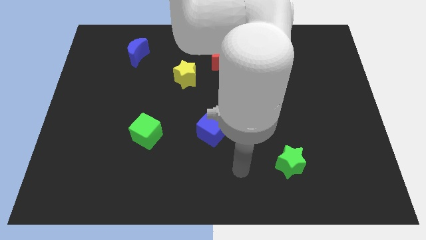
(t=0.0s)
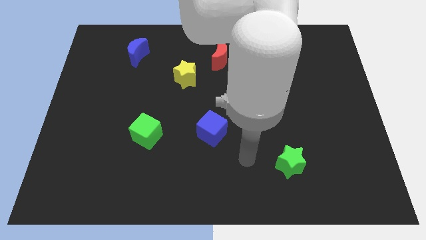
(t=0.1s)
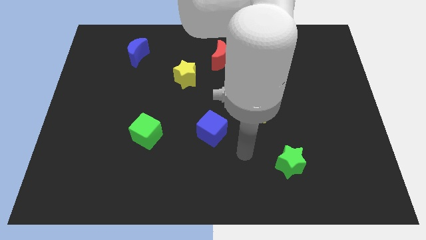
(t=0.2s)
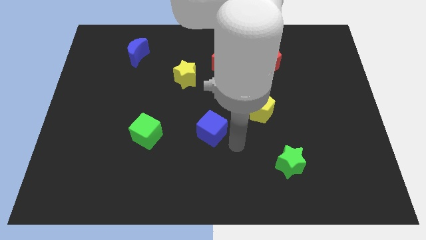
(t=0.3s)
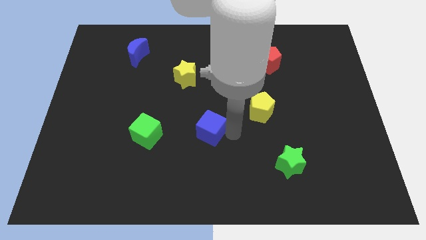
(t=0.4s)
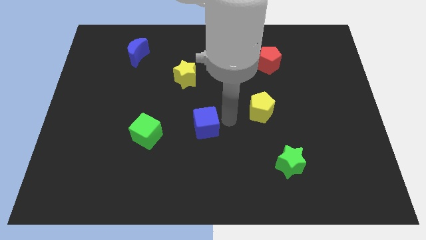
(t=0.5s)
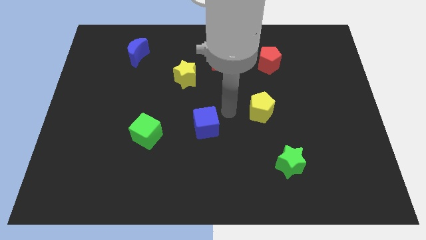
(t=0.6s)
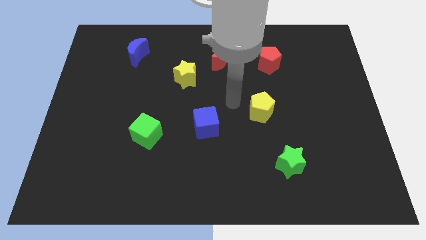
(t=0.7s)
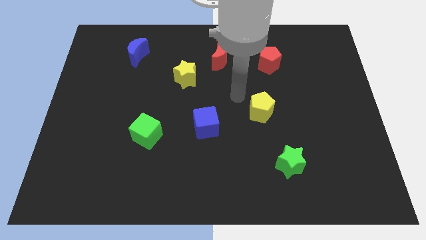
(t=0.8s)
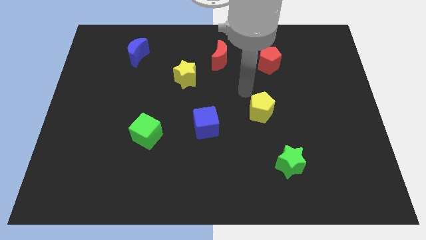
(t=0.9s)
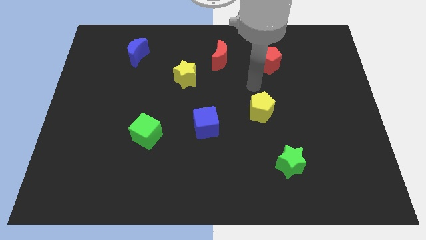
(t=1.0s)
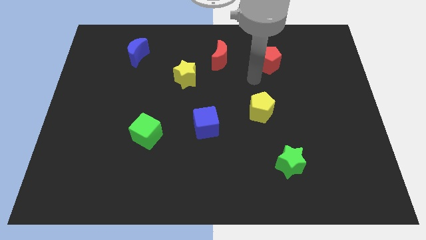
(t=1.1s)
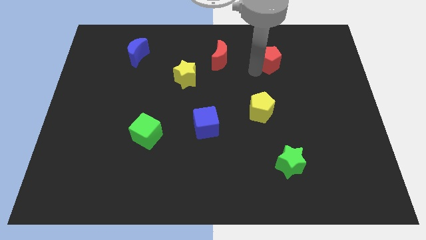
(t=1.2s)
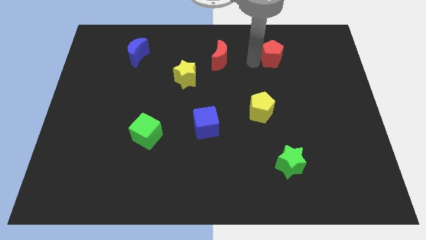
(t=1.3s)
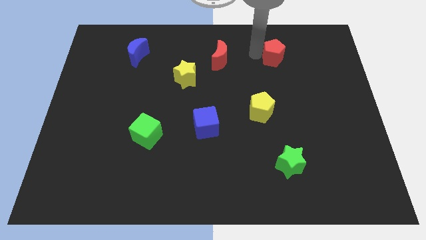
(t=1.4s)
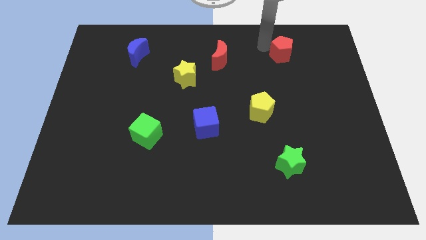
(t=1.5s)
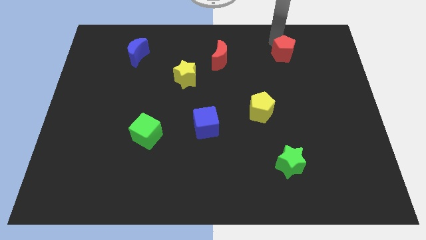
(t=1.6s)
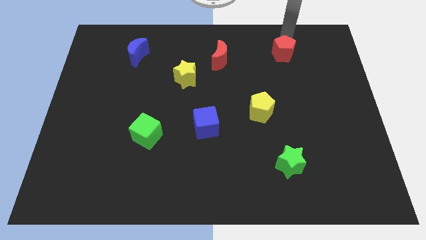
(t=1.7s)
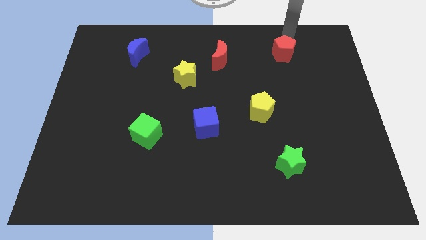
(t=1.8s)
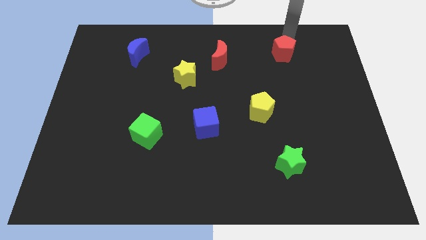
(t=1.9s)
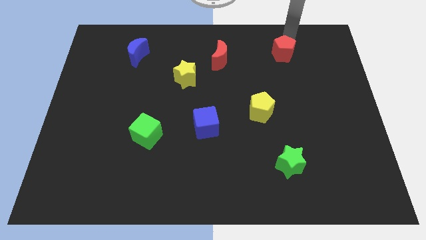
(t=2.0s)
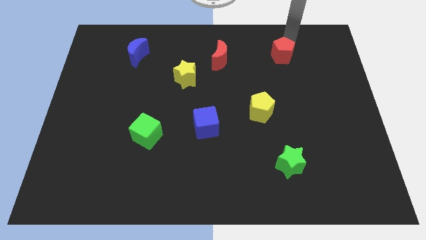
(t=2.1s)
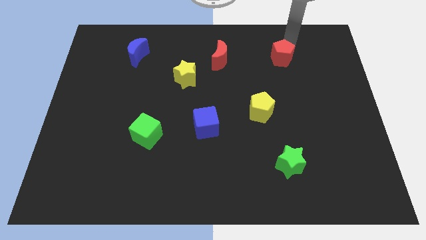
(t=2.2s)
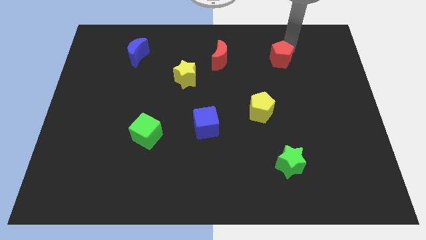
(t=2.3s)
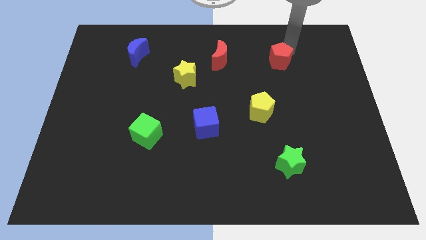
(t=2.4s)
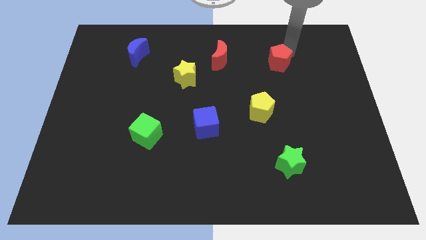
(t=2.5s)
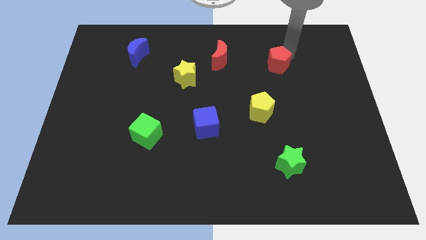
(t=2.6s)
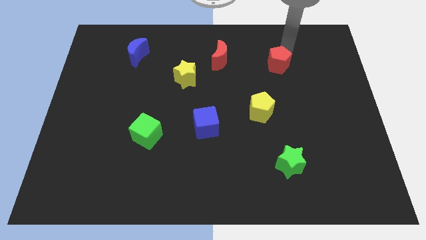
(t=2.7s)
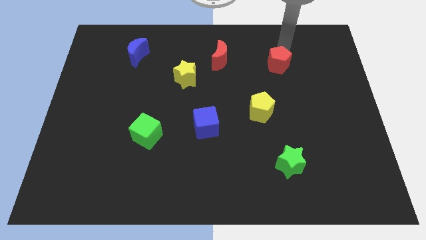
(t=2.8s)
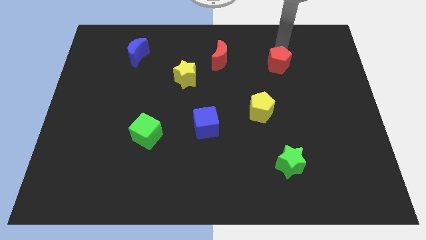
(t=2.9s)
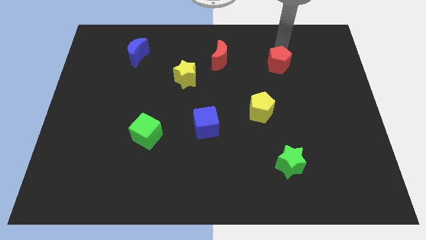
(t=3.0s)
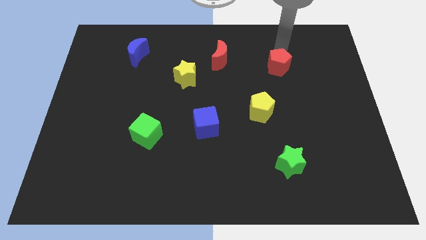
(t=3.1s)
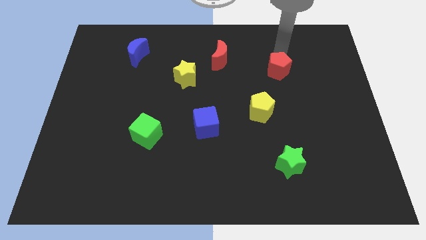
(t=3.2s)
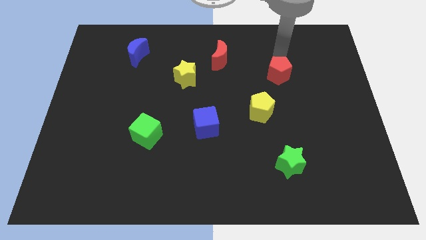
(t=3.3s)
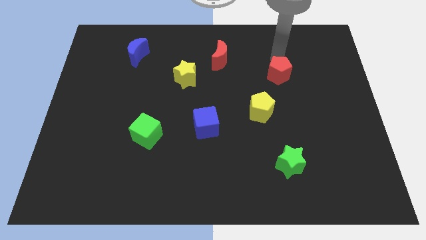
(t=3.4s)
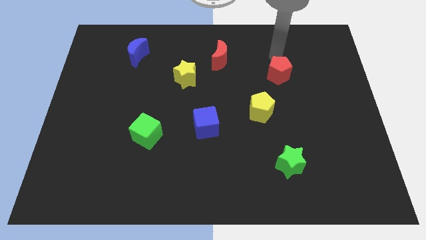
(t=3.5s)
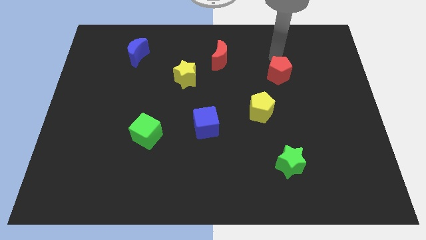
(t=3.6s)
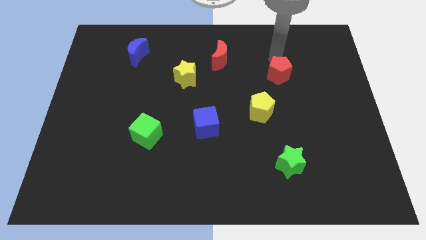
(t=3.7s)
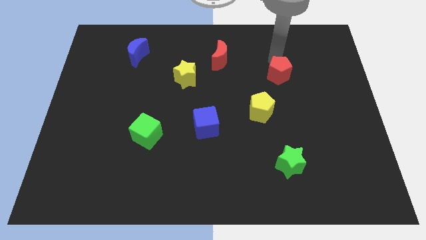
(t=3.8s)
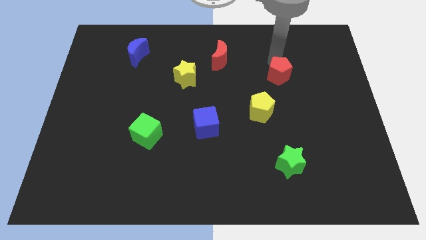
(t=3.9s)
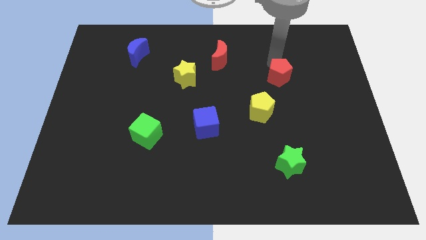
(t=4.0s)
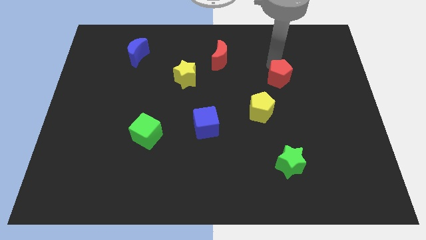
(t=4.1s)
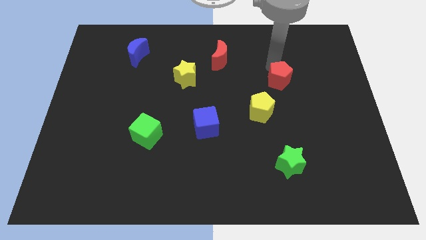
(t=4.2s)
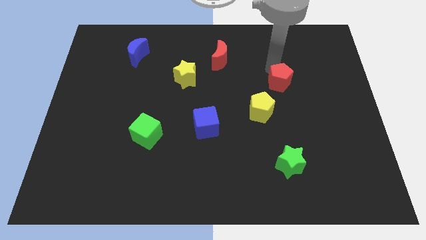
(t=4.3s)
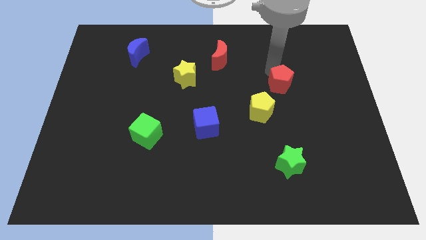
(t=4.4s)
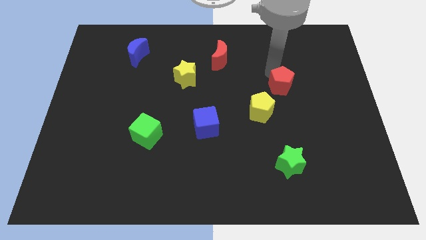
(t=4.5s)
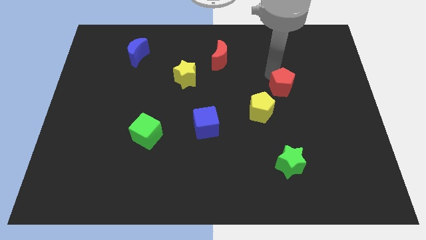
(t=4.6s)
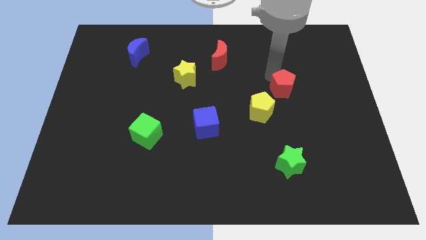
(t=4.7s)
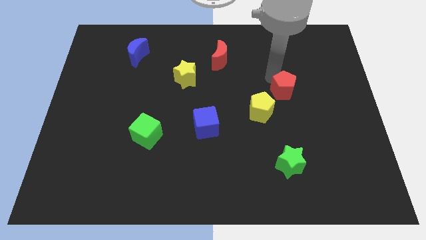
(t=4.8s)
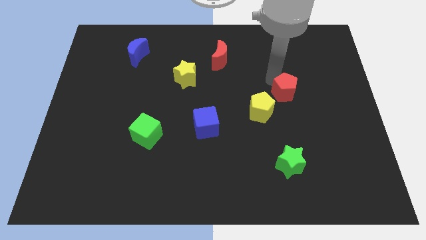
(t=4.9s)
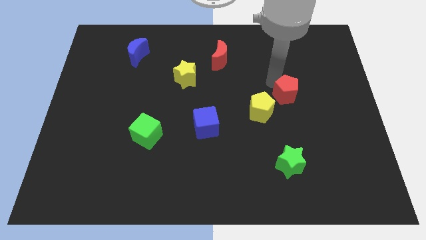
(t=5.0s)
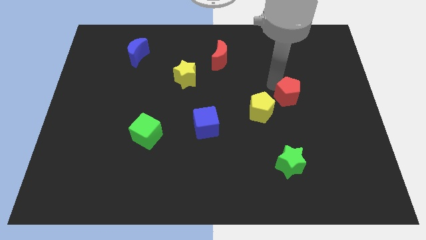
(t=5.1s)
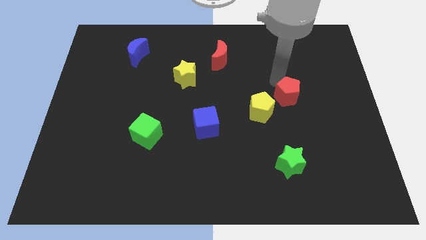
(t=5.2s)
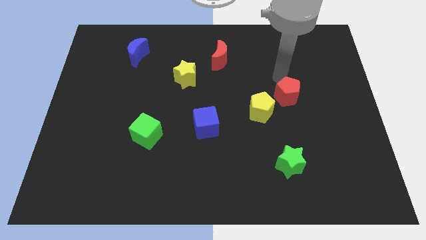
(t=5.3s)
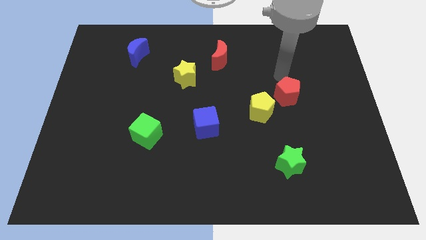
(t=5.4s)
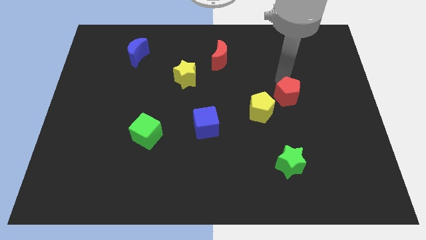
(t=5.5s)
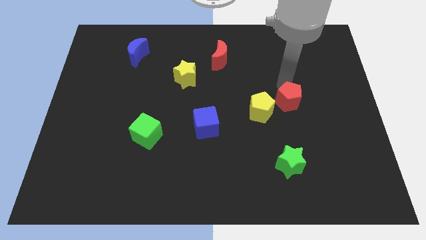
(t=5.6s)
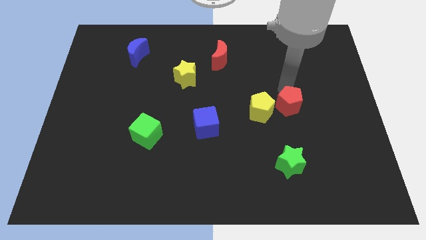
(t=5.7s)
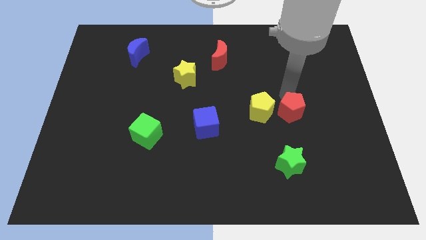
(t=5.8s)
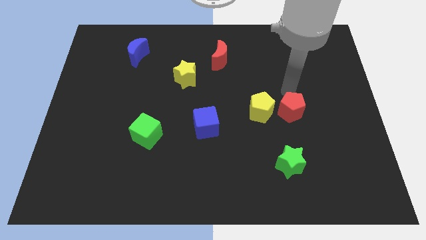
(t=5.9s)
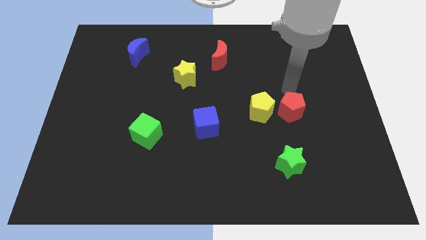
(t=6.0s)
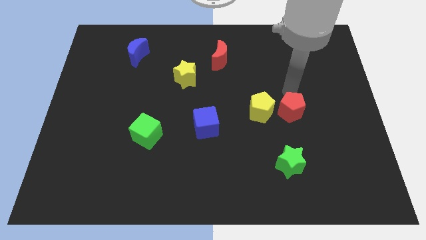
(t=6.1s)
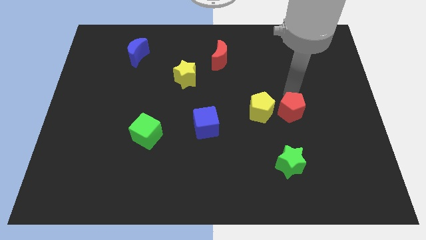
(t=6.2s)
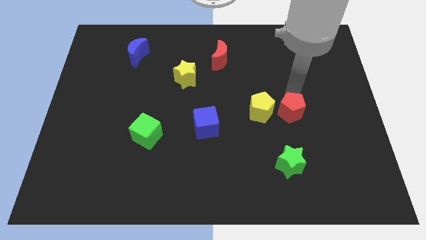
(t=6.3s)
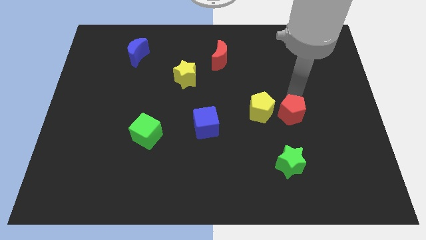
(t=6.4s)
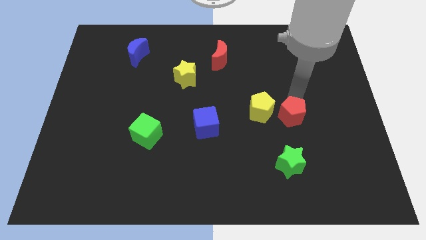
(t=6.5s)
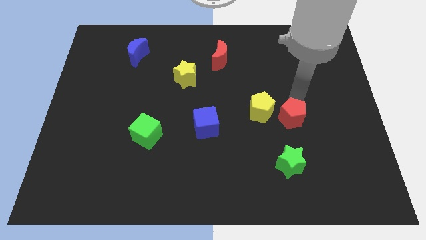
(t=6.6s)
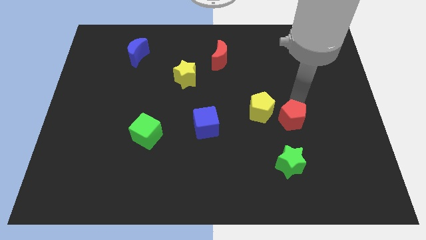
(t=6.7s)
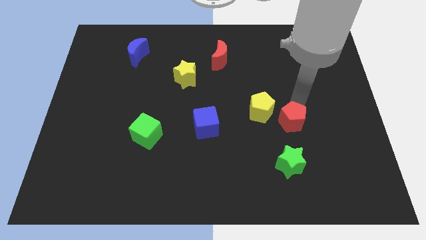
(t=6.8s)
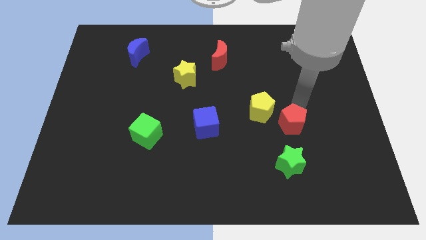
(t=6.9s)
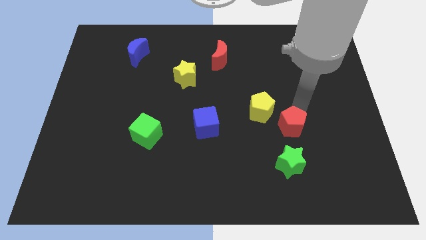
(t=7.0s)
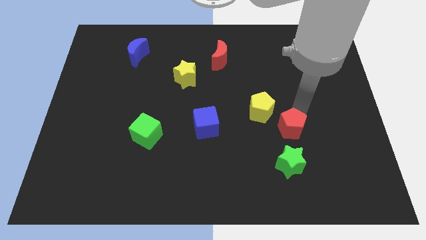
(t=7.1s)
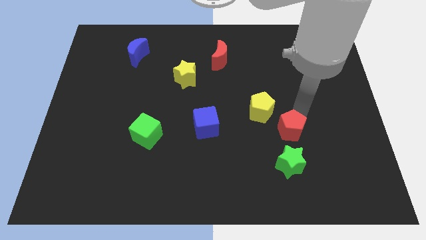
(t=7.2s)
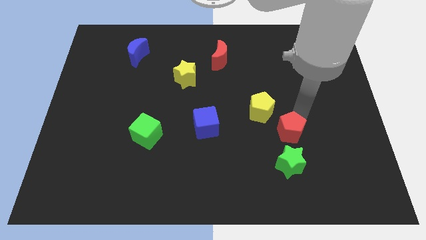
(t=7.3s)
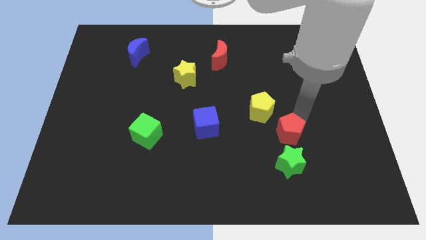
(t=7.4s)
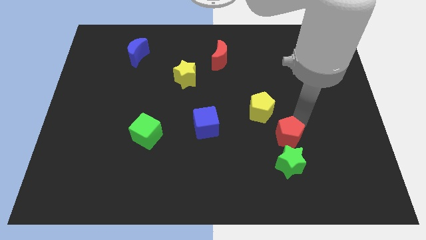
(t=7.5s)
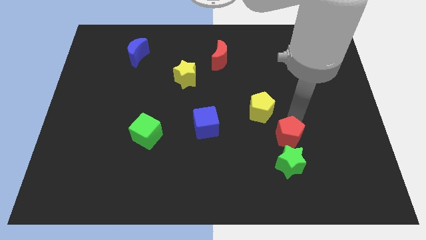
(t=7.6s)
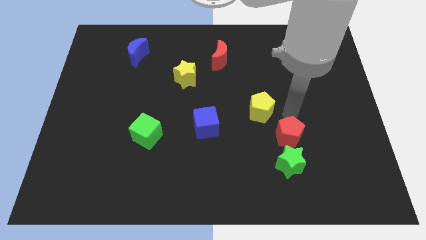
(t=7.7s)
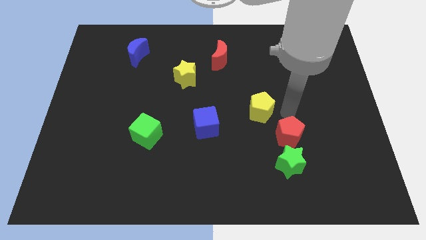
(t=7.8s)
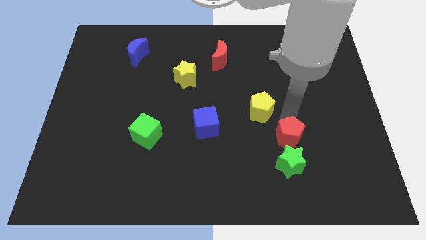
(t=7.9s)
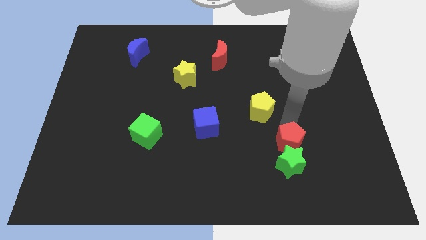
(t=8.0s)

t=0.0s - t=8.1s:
put the red pentagon close to the green star
